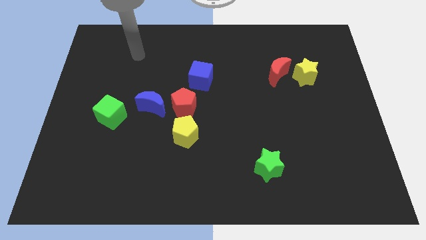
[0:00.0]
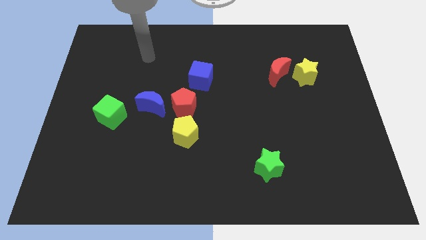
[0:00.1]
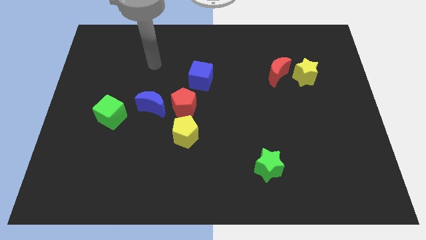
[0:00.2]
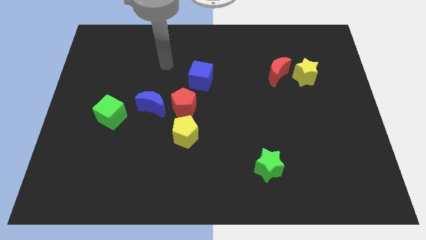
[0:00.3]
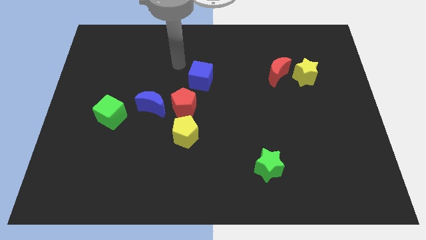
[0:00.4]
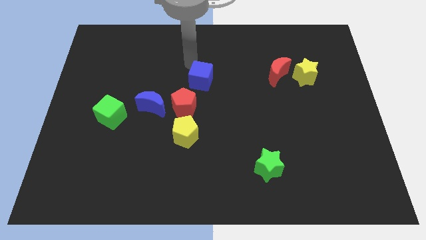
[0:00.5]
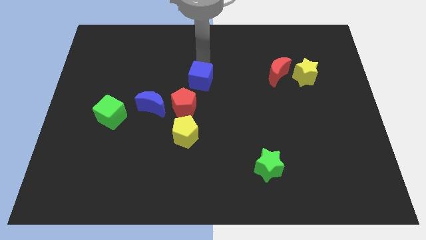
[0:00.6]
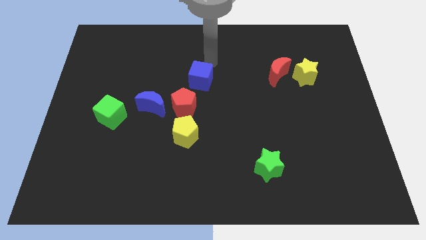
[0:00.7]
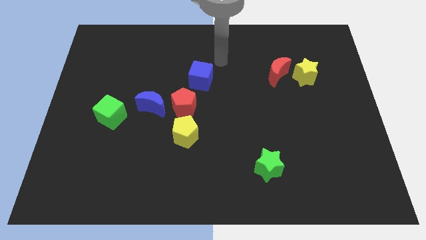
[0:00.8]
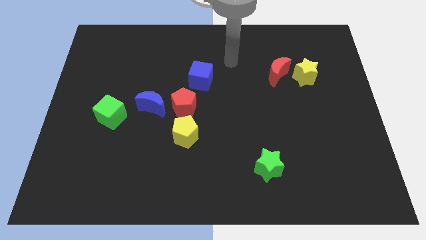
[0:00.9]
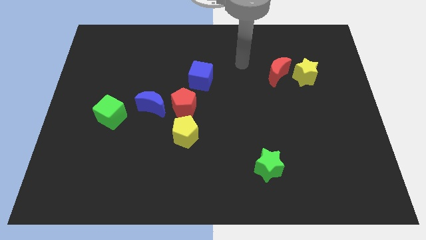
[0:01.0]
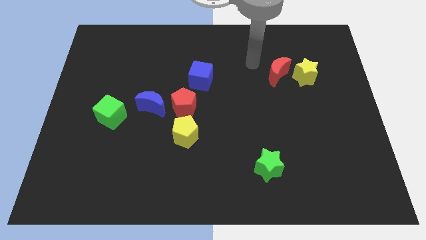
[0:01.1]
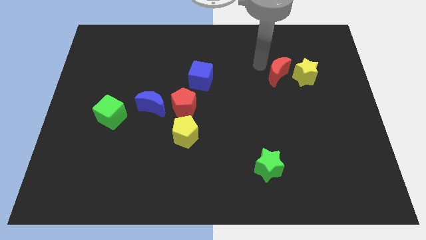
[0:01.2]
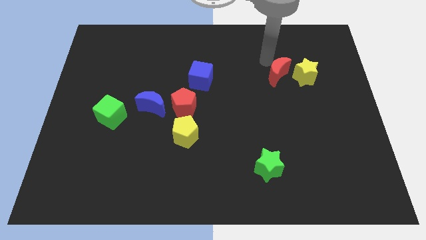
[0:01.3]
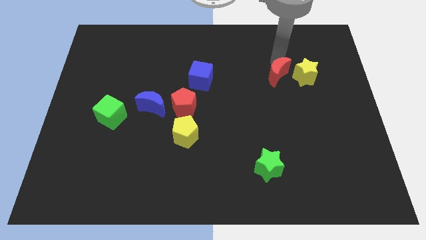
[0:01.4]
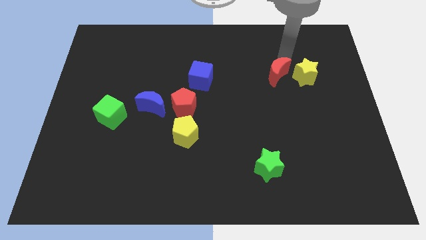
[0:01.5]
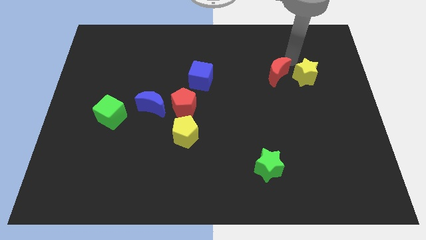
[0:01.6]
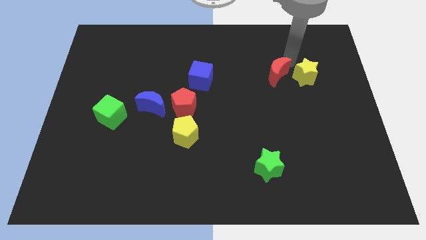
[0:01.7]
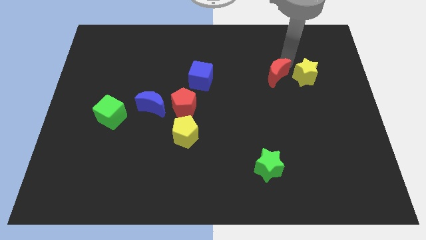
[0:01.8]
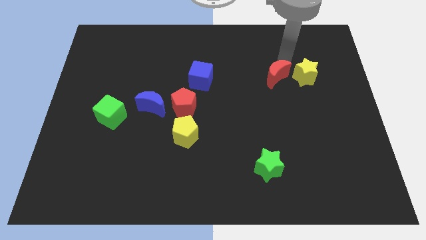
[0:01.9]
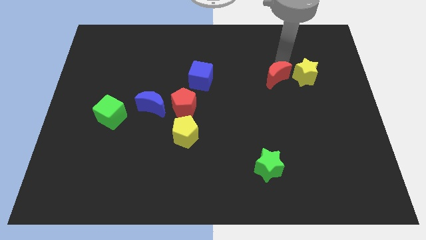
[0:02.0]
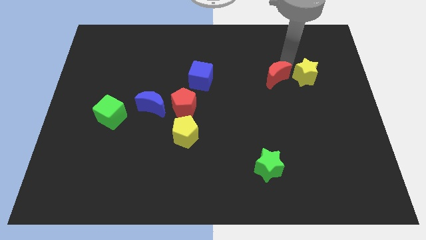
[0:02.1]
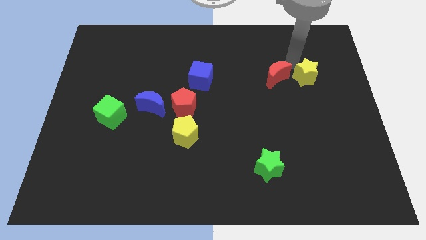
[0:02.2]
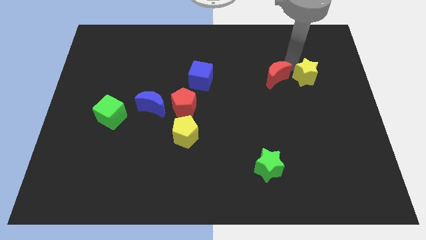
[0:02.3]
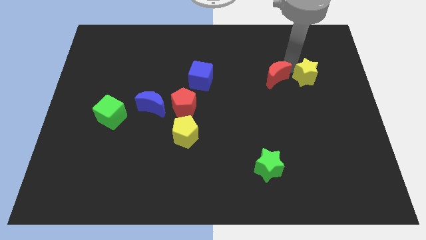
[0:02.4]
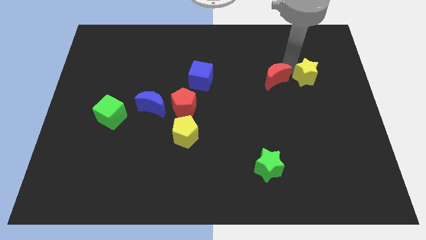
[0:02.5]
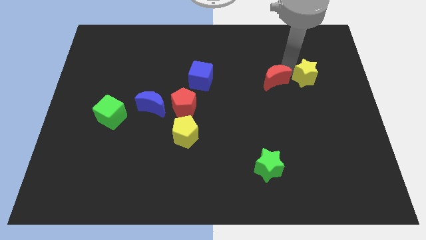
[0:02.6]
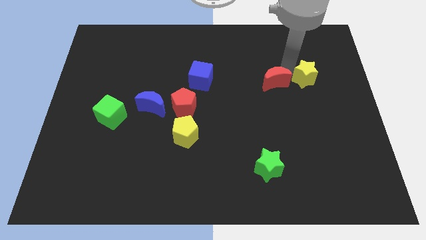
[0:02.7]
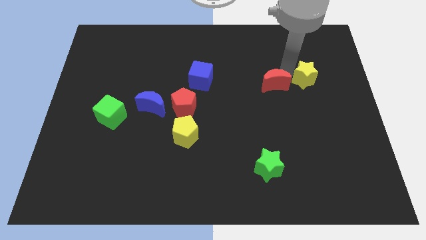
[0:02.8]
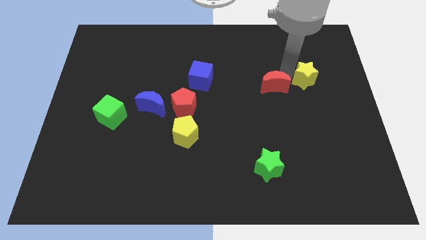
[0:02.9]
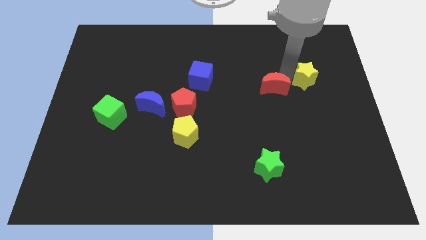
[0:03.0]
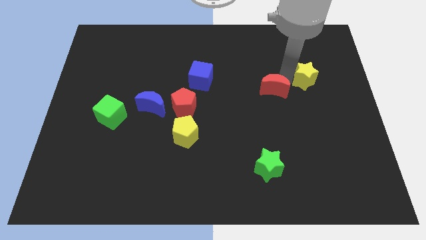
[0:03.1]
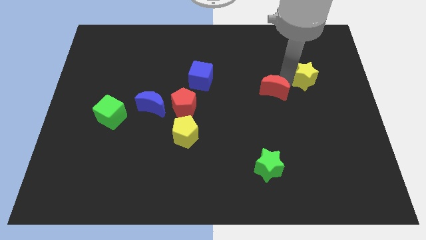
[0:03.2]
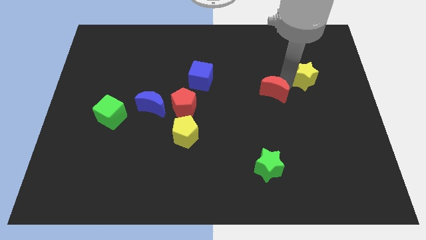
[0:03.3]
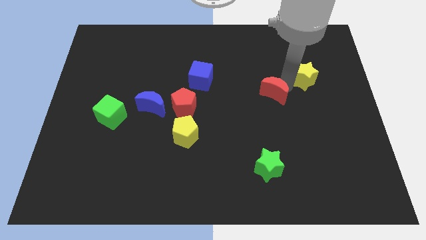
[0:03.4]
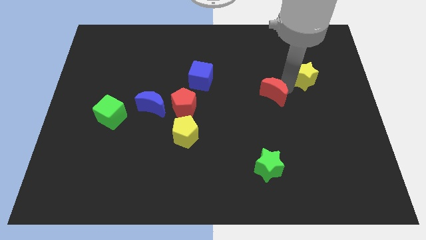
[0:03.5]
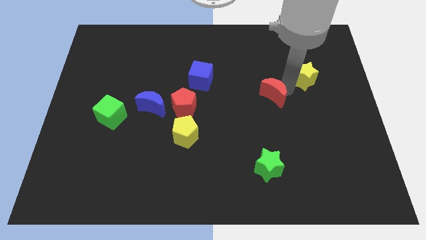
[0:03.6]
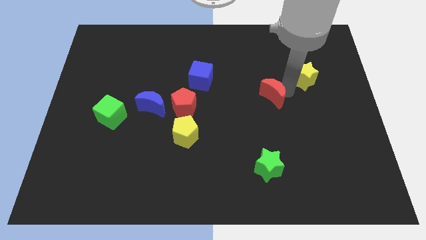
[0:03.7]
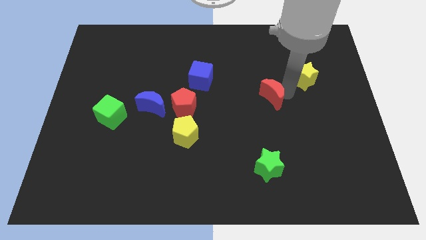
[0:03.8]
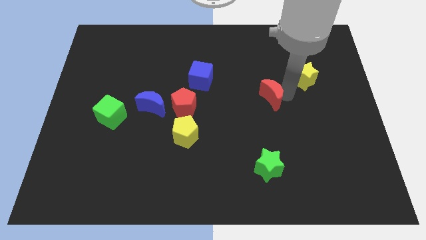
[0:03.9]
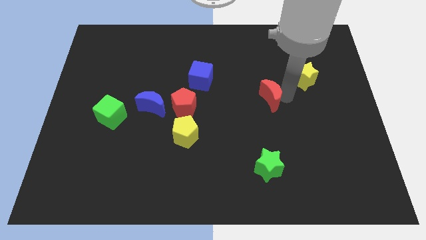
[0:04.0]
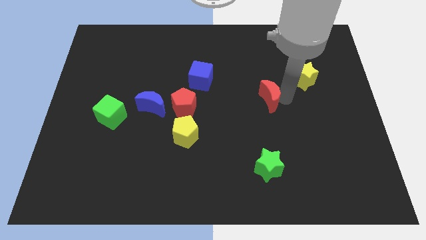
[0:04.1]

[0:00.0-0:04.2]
slide the red moon down and to the left diagonally slightly

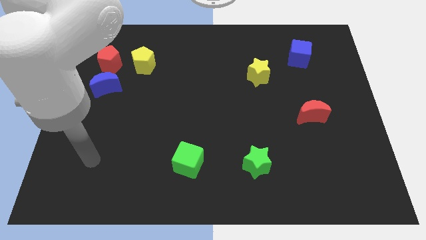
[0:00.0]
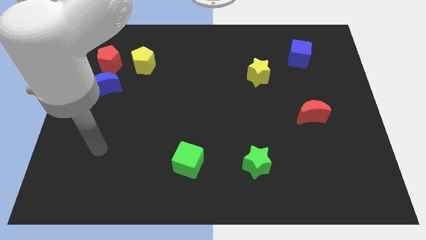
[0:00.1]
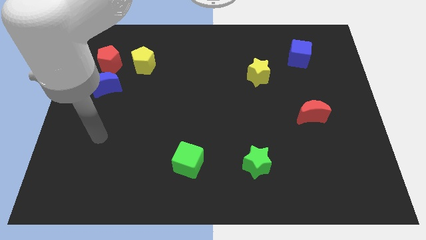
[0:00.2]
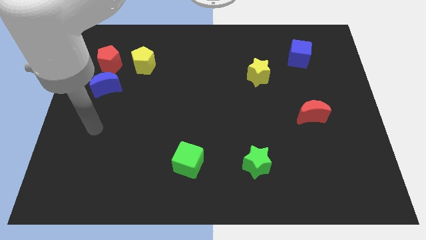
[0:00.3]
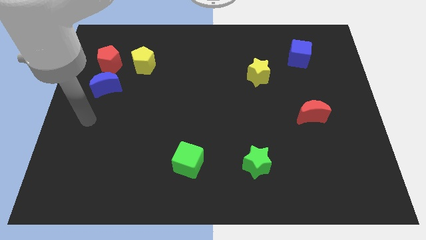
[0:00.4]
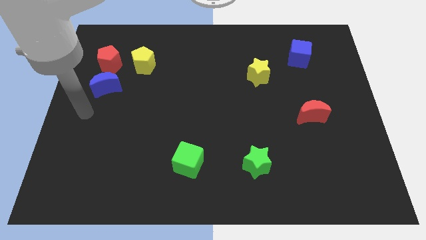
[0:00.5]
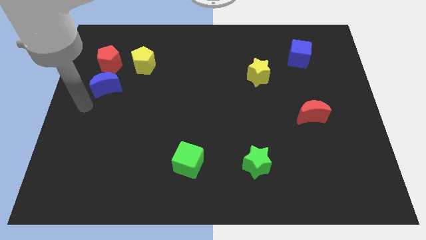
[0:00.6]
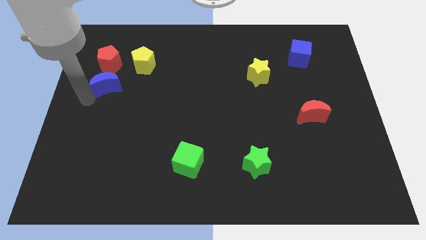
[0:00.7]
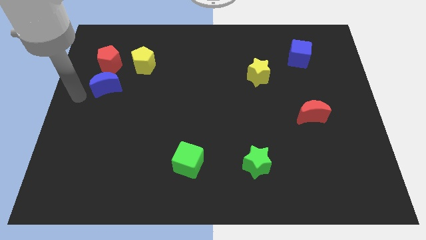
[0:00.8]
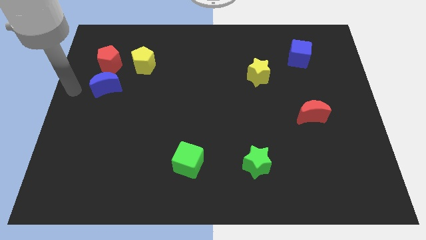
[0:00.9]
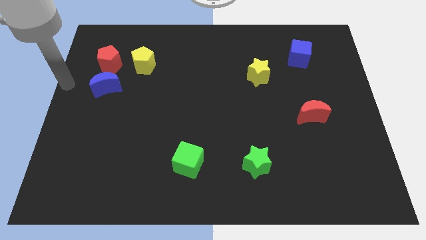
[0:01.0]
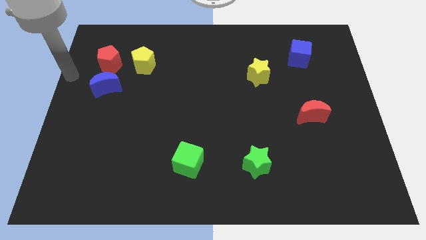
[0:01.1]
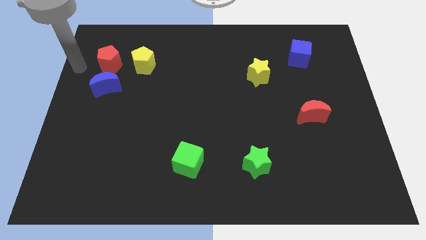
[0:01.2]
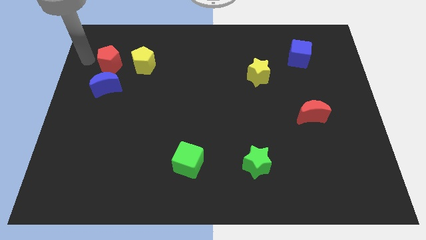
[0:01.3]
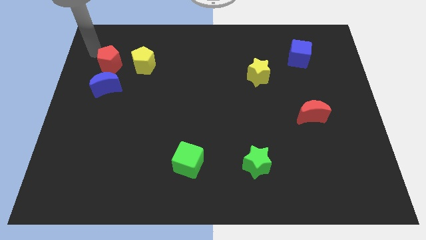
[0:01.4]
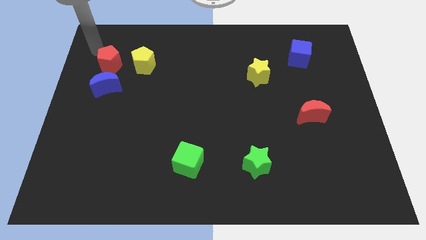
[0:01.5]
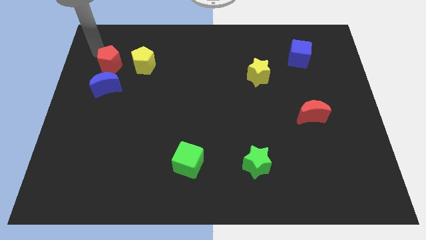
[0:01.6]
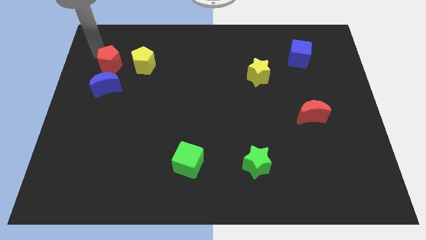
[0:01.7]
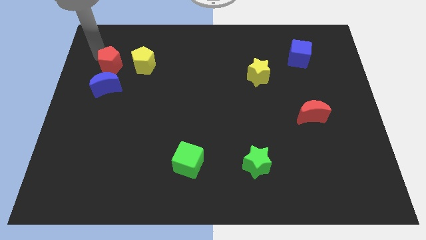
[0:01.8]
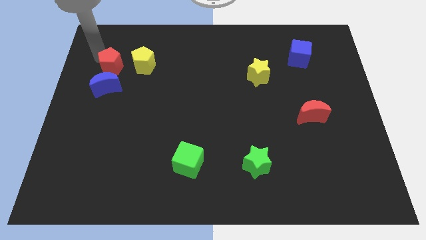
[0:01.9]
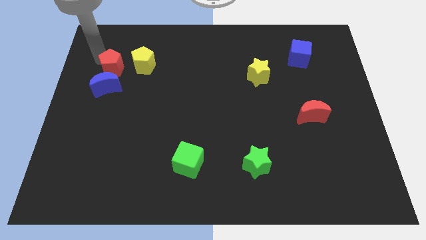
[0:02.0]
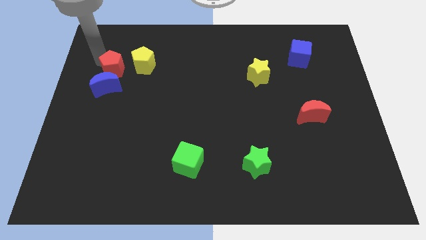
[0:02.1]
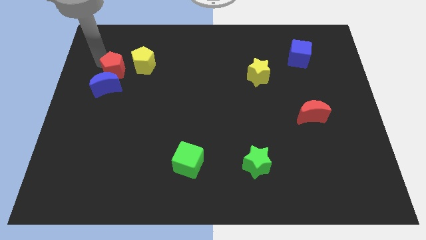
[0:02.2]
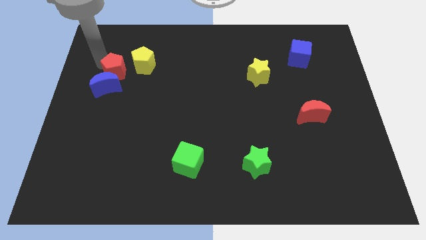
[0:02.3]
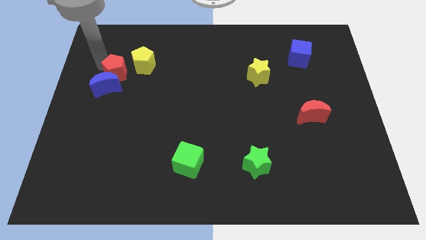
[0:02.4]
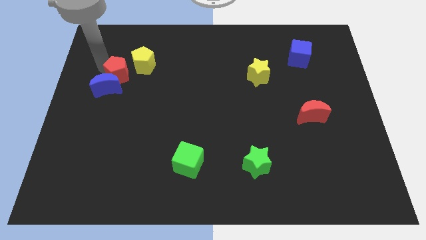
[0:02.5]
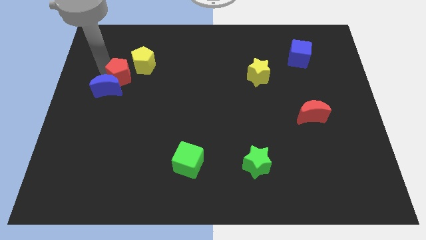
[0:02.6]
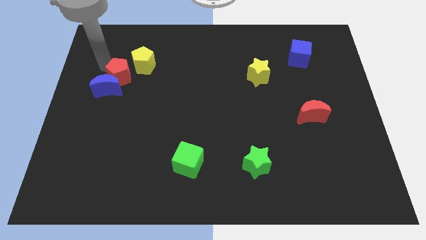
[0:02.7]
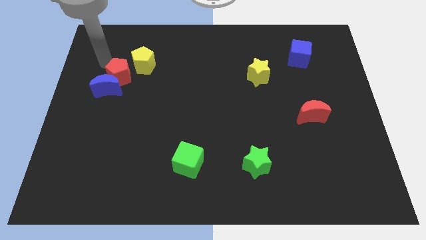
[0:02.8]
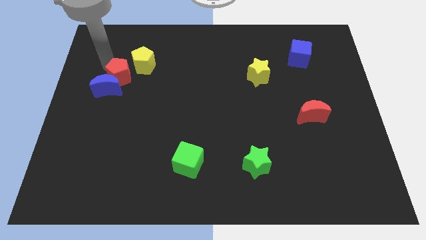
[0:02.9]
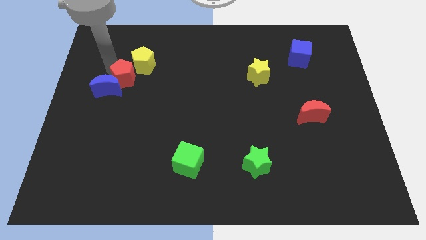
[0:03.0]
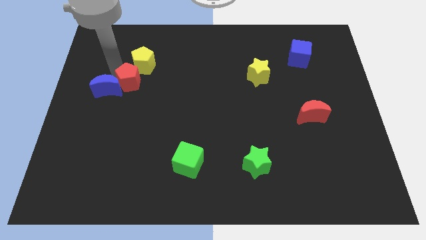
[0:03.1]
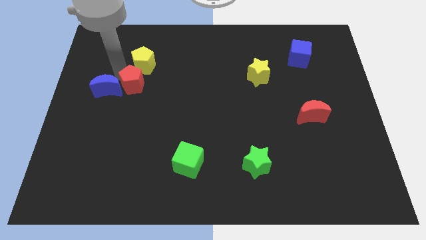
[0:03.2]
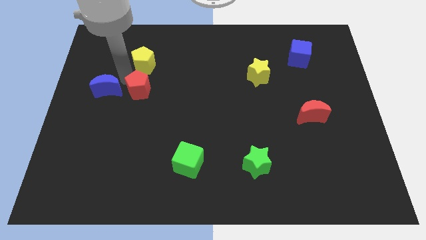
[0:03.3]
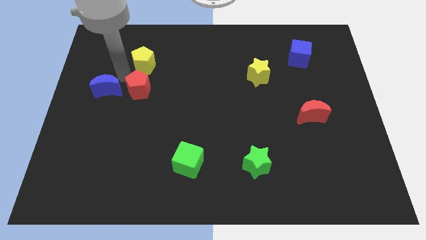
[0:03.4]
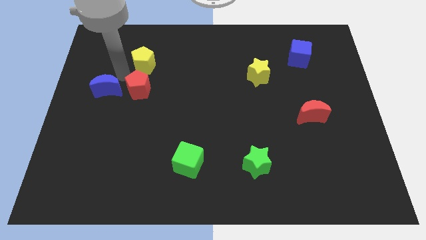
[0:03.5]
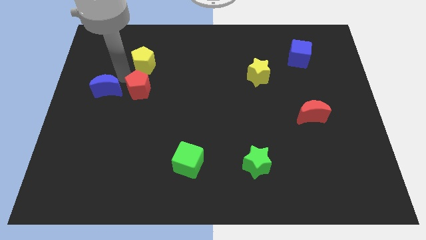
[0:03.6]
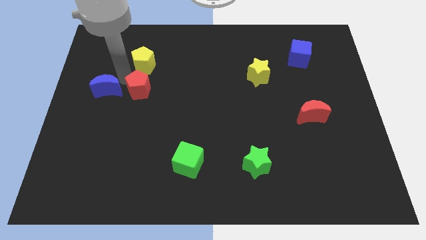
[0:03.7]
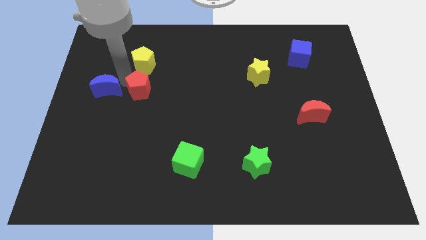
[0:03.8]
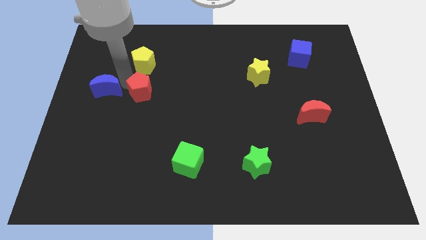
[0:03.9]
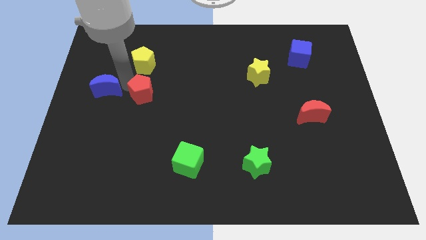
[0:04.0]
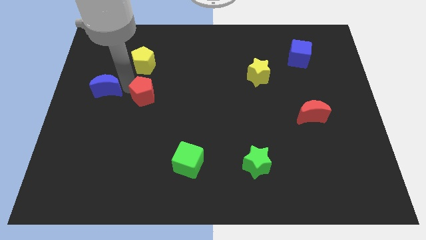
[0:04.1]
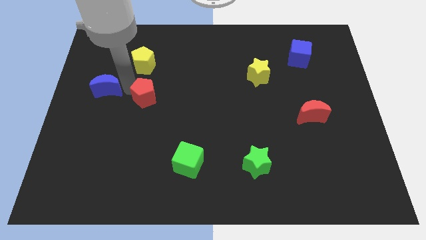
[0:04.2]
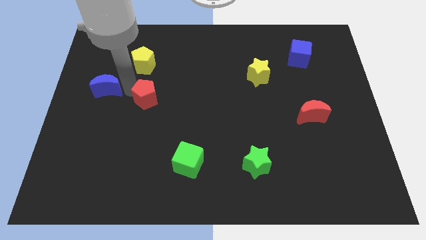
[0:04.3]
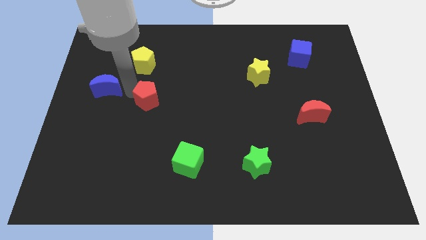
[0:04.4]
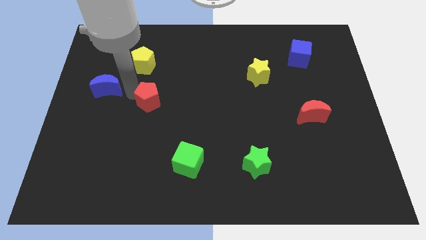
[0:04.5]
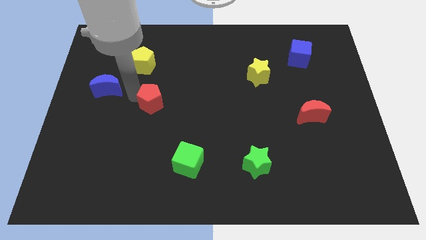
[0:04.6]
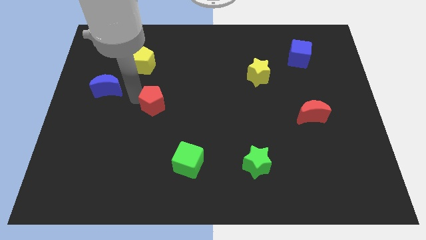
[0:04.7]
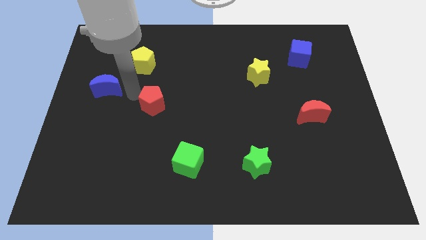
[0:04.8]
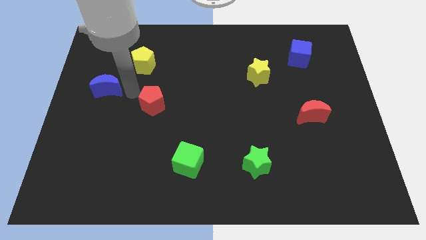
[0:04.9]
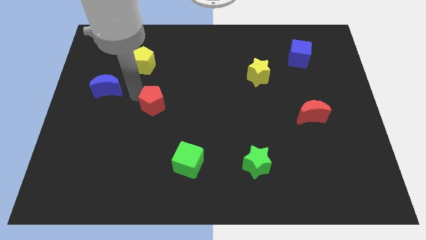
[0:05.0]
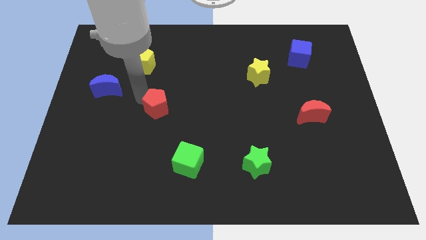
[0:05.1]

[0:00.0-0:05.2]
move the red pentagon diagonally downwards and right
